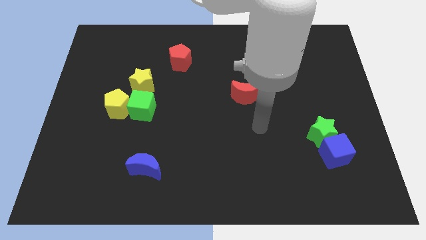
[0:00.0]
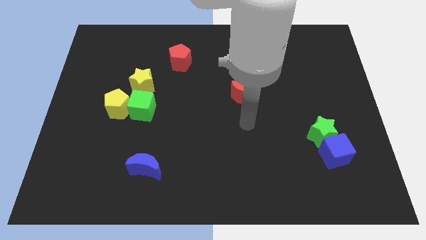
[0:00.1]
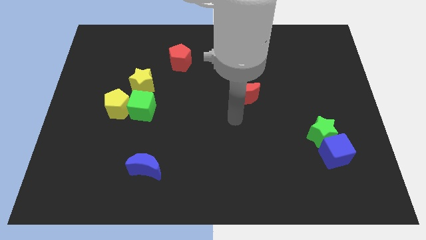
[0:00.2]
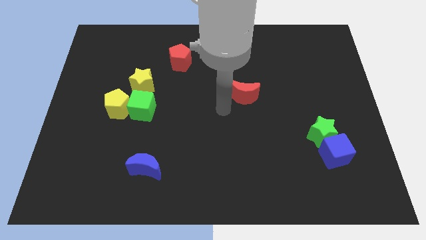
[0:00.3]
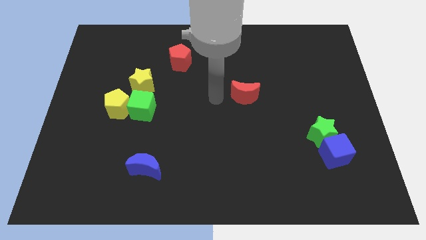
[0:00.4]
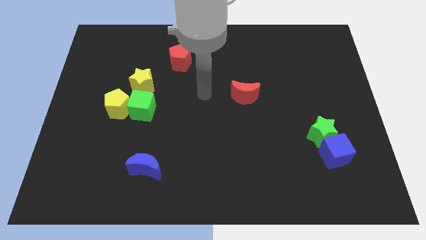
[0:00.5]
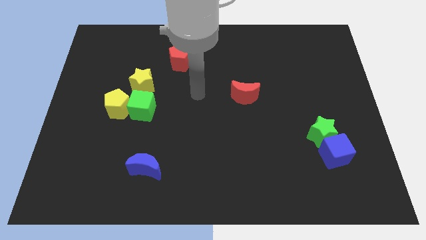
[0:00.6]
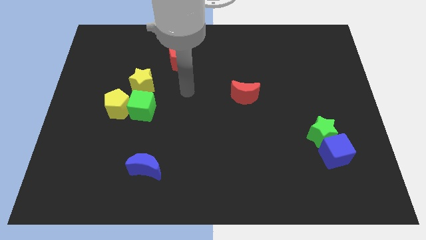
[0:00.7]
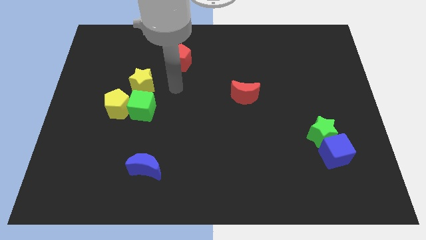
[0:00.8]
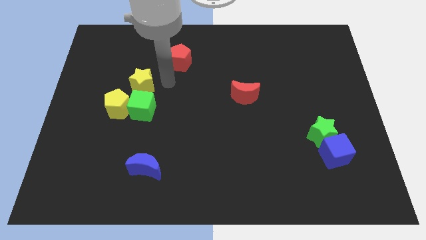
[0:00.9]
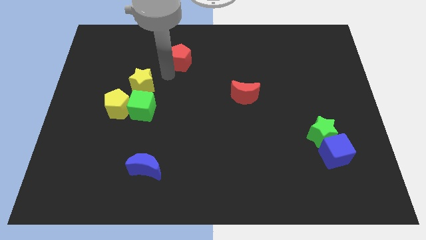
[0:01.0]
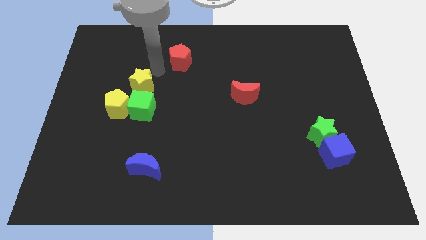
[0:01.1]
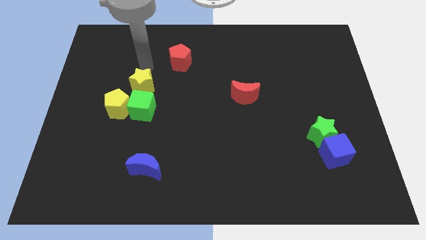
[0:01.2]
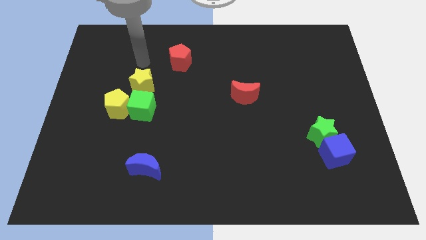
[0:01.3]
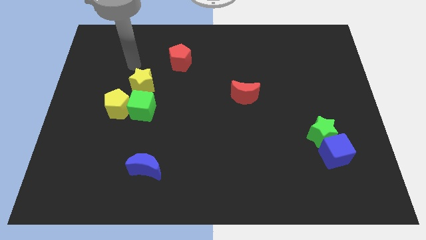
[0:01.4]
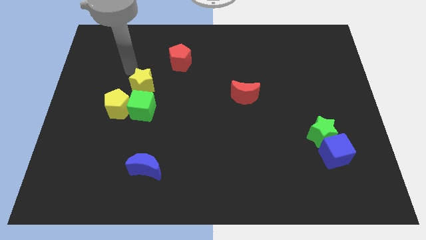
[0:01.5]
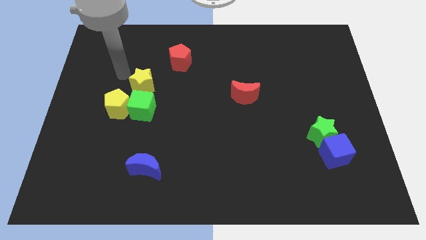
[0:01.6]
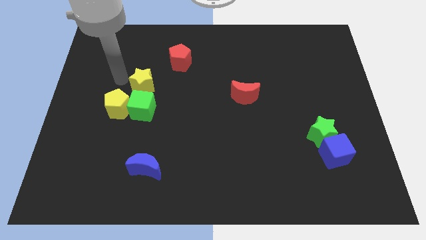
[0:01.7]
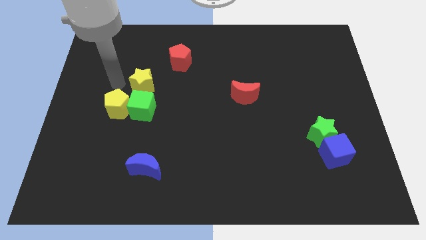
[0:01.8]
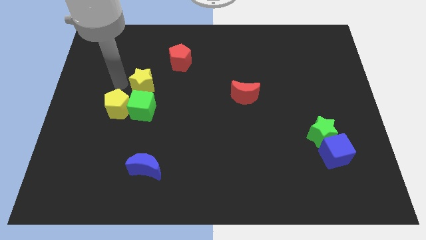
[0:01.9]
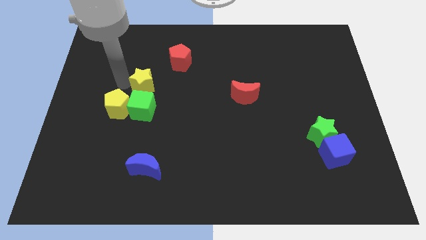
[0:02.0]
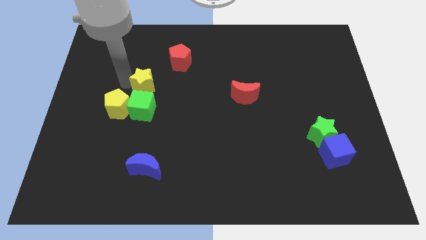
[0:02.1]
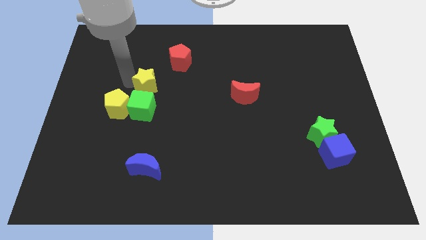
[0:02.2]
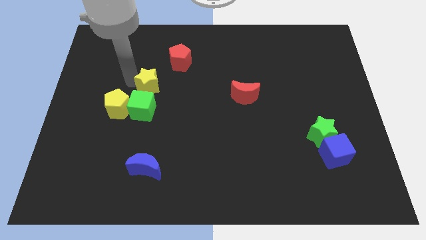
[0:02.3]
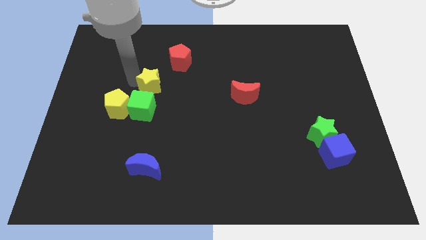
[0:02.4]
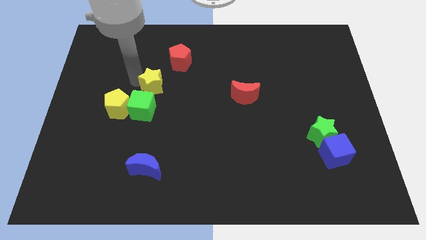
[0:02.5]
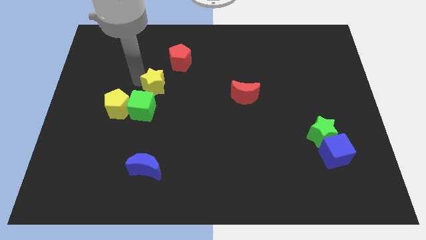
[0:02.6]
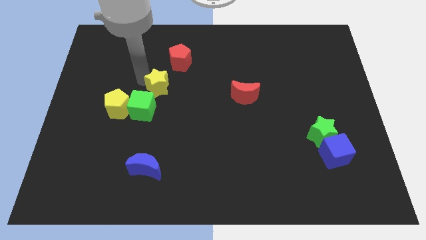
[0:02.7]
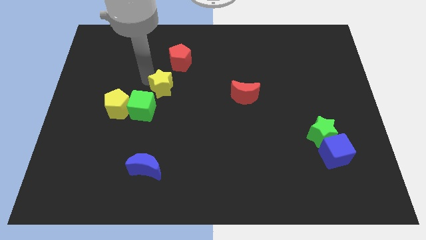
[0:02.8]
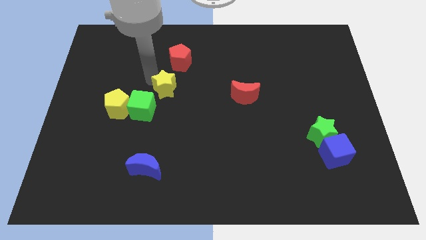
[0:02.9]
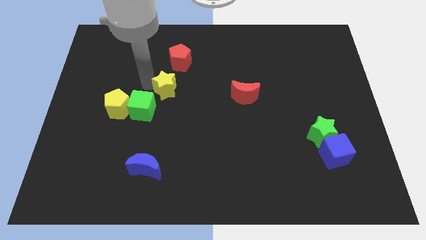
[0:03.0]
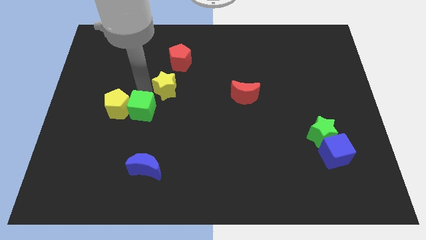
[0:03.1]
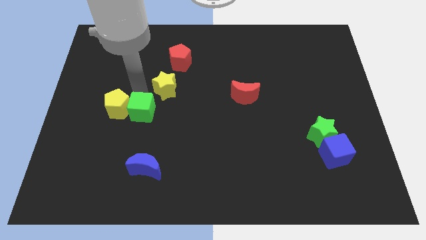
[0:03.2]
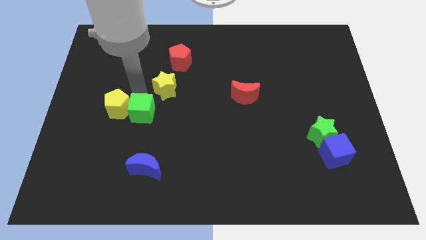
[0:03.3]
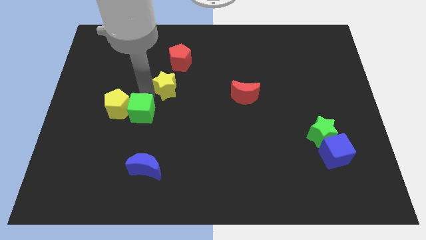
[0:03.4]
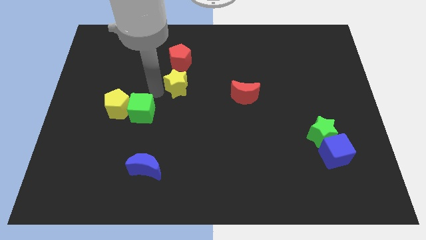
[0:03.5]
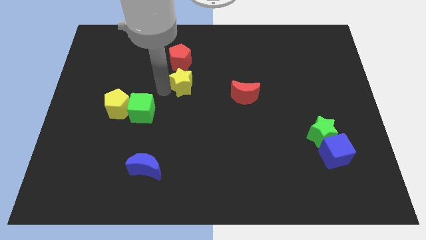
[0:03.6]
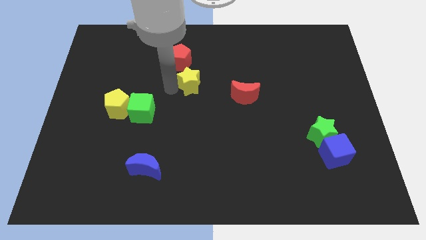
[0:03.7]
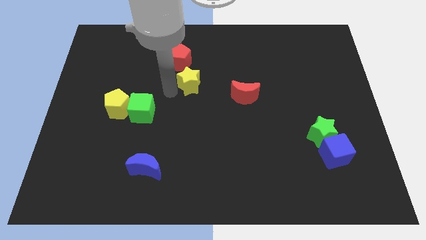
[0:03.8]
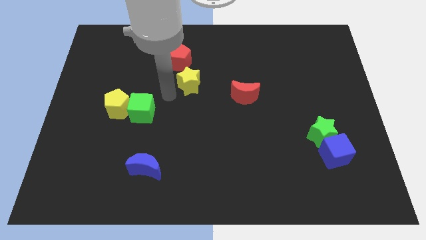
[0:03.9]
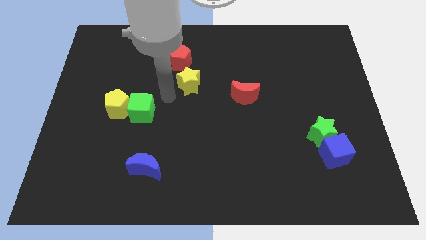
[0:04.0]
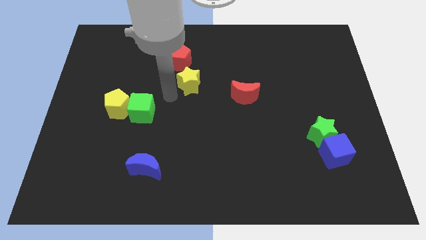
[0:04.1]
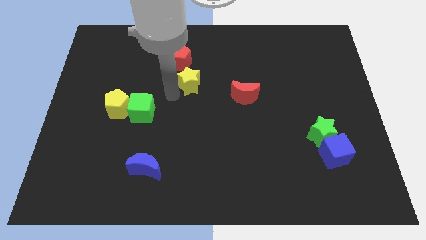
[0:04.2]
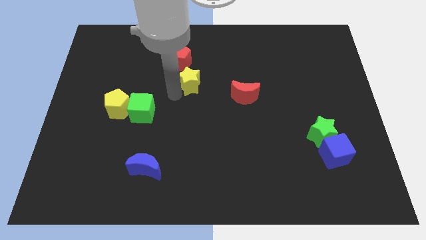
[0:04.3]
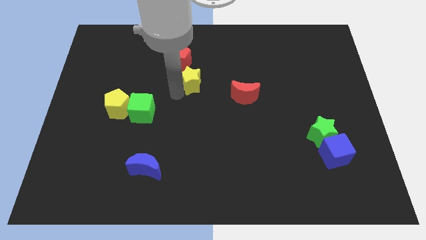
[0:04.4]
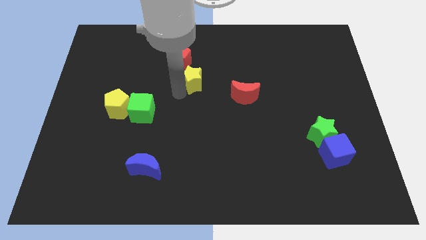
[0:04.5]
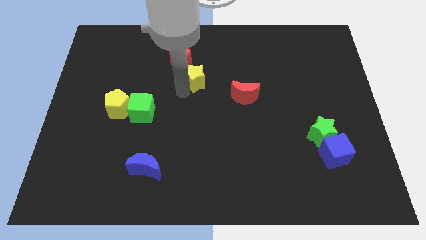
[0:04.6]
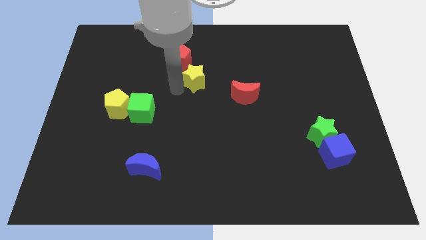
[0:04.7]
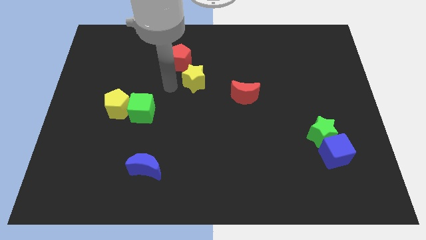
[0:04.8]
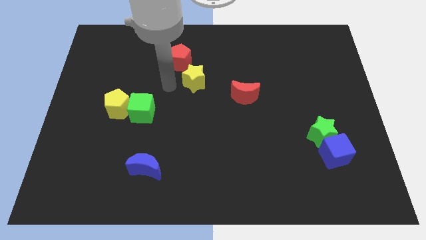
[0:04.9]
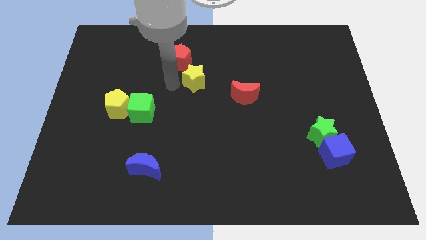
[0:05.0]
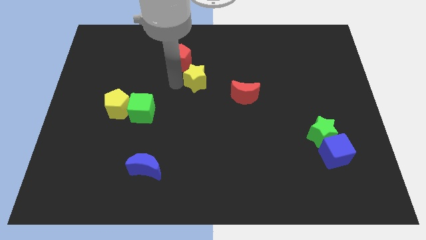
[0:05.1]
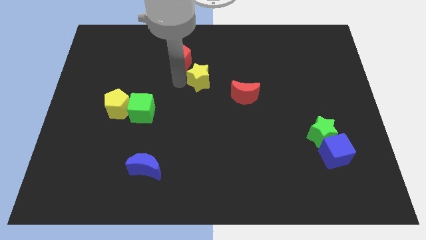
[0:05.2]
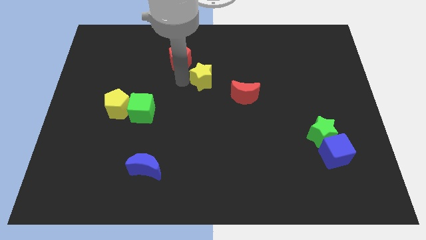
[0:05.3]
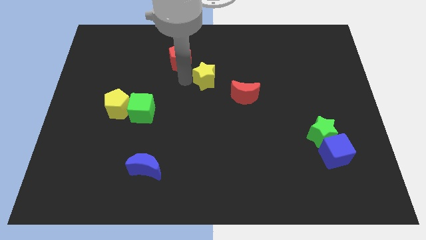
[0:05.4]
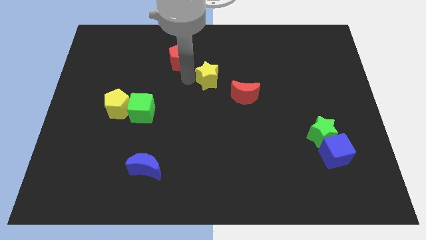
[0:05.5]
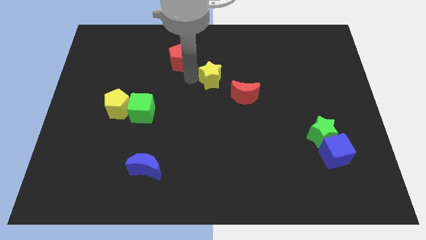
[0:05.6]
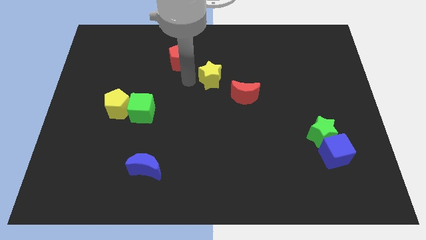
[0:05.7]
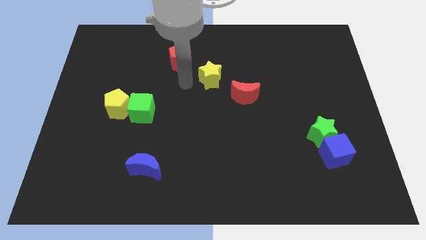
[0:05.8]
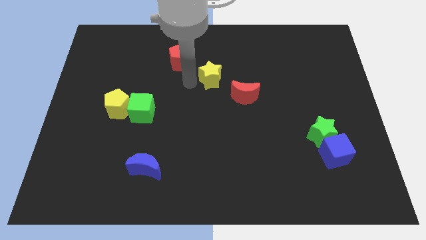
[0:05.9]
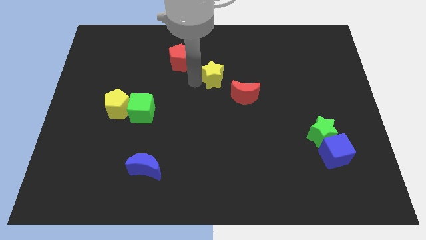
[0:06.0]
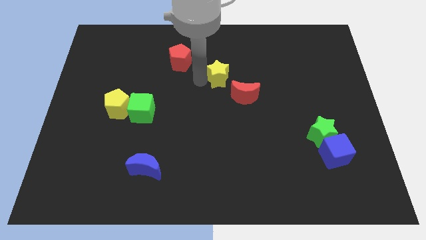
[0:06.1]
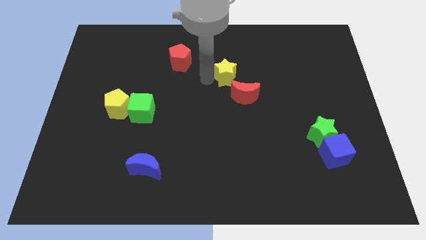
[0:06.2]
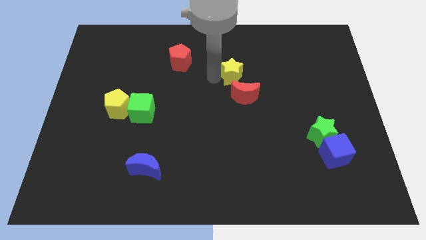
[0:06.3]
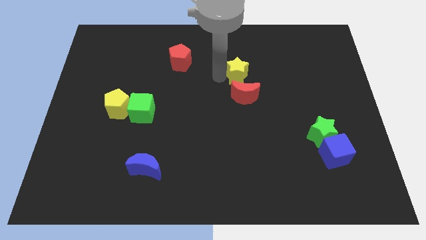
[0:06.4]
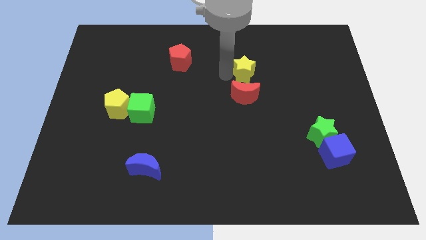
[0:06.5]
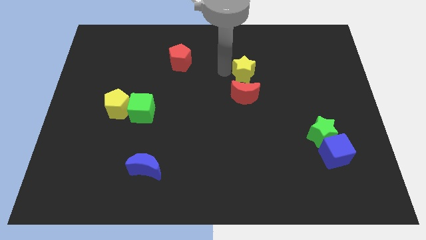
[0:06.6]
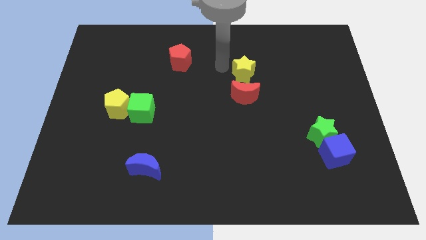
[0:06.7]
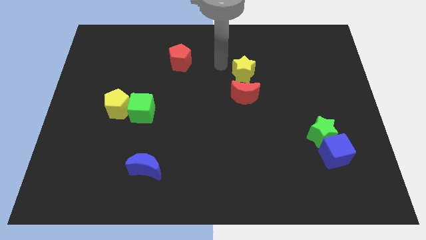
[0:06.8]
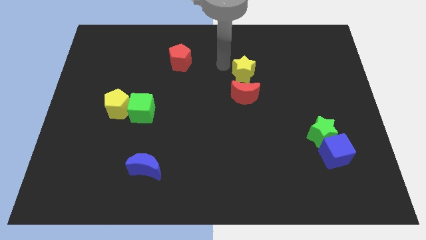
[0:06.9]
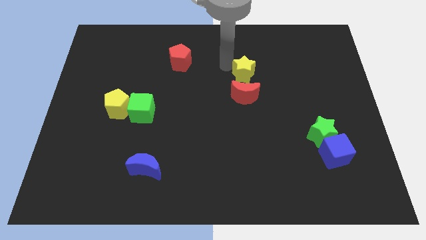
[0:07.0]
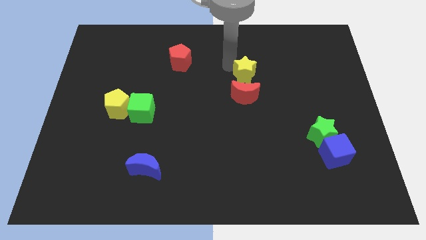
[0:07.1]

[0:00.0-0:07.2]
put the yellow star diagonally up and to the right of the red moon
